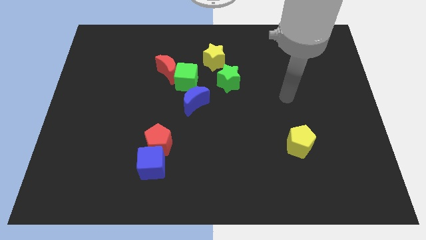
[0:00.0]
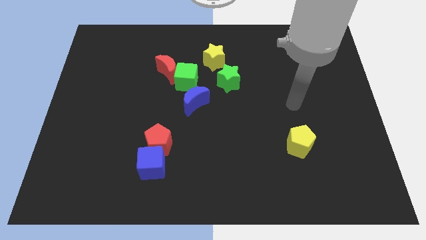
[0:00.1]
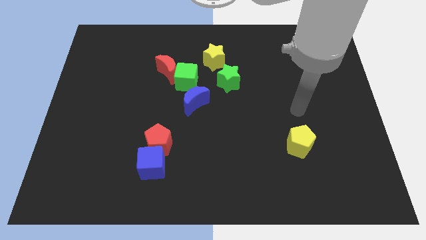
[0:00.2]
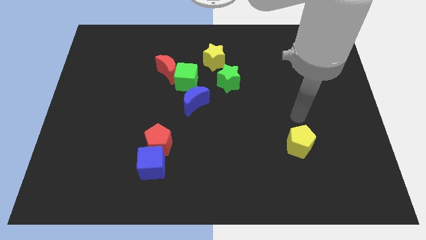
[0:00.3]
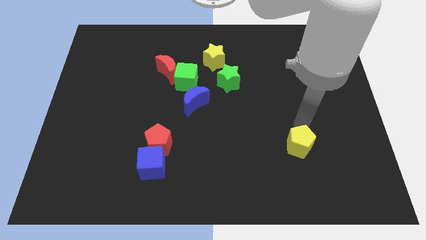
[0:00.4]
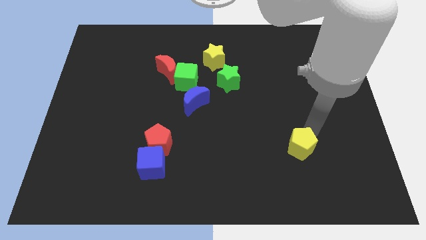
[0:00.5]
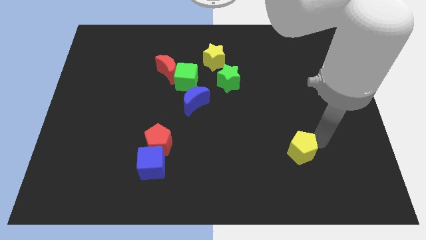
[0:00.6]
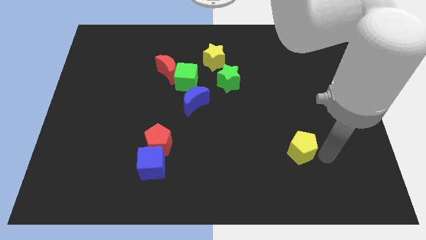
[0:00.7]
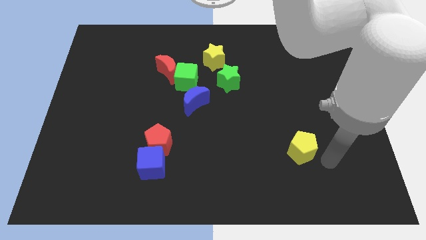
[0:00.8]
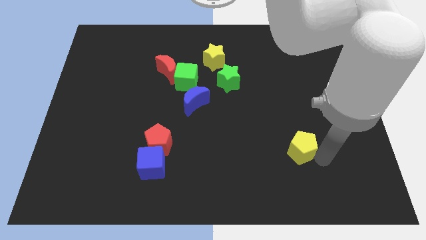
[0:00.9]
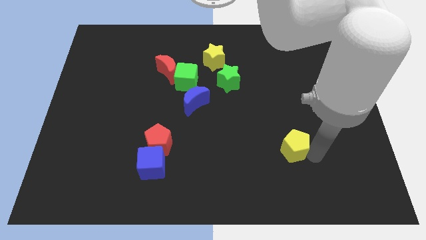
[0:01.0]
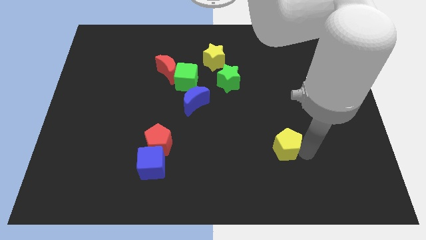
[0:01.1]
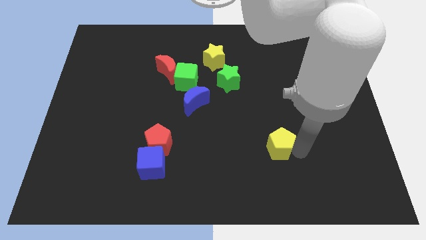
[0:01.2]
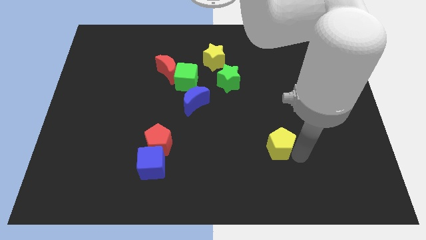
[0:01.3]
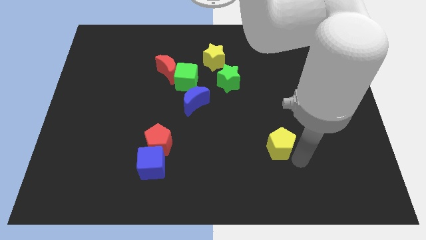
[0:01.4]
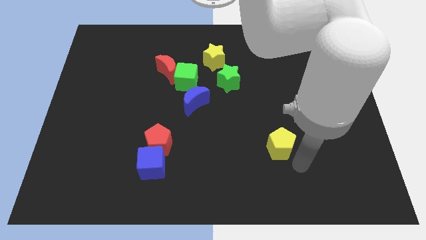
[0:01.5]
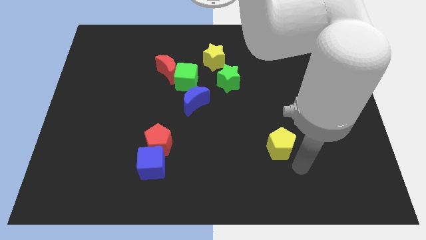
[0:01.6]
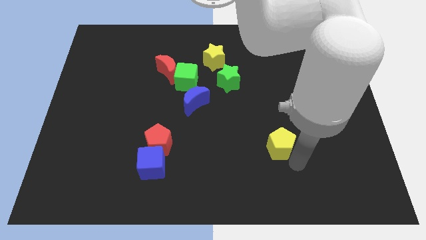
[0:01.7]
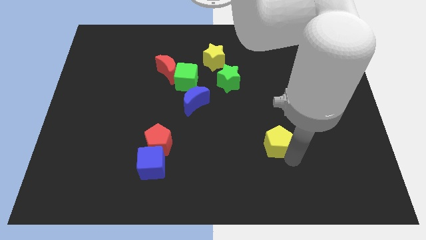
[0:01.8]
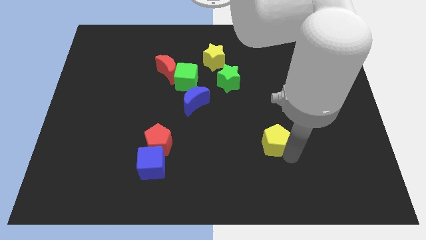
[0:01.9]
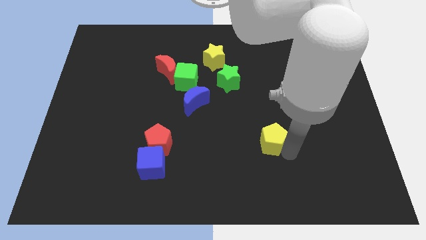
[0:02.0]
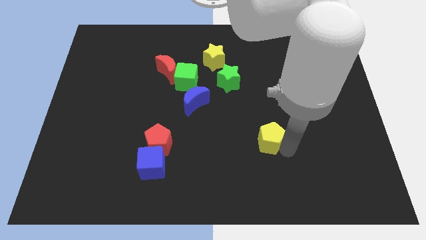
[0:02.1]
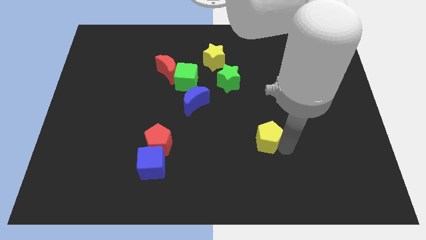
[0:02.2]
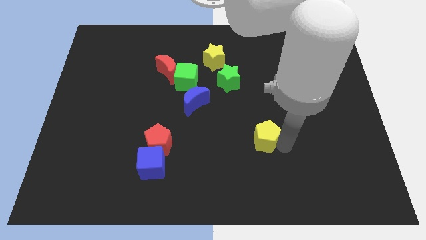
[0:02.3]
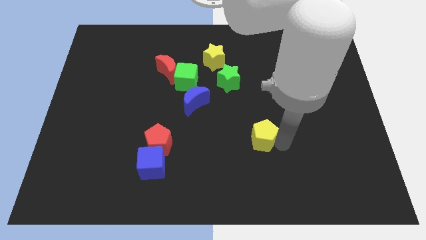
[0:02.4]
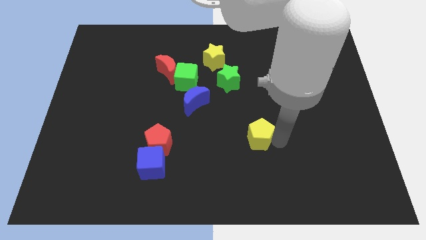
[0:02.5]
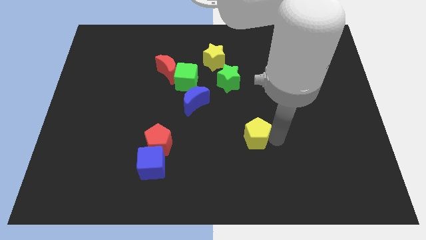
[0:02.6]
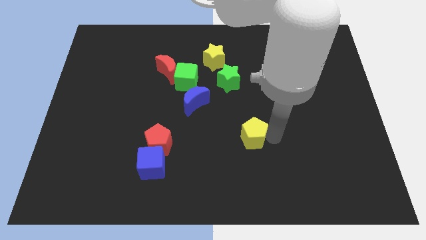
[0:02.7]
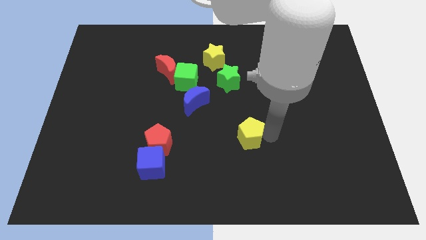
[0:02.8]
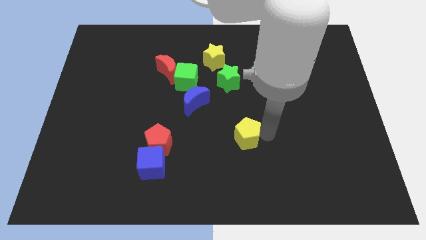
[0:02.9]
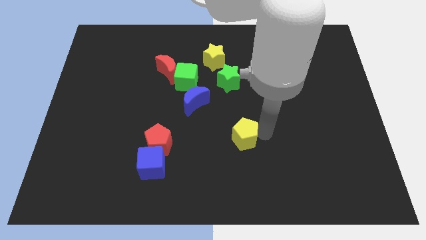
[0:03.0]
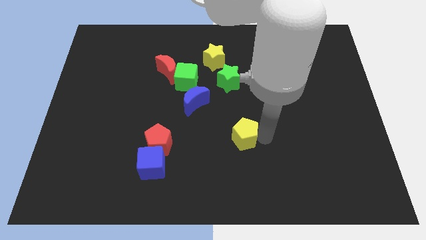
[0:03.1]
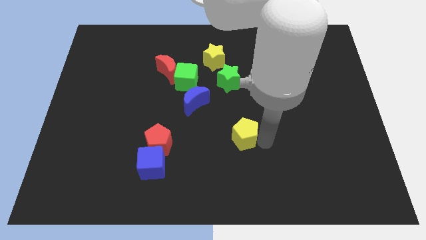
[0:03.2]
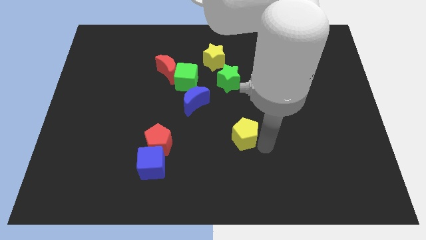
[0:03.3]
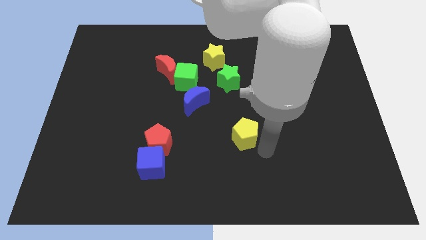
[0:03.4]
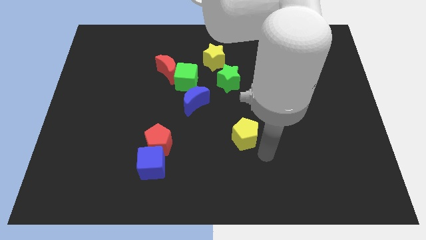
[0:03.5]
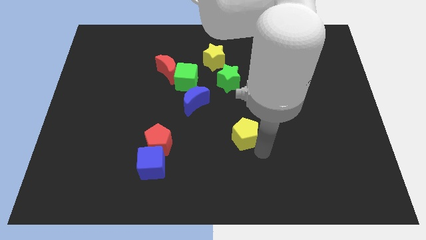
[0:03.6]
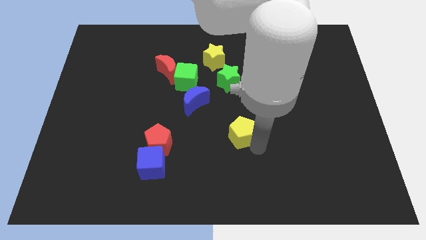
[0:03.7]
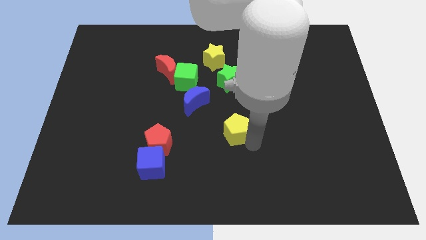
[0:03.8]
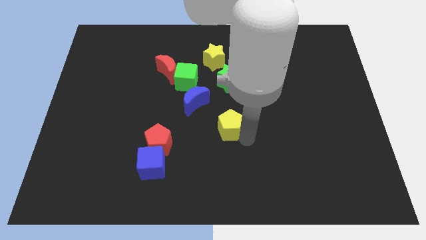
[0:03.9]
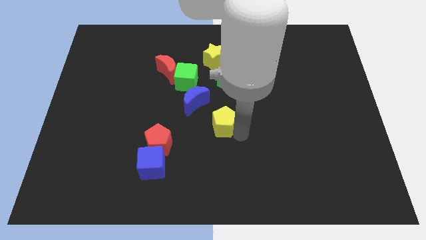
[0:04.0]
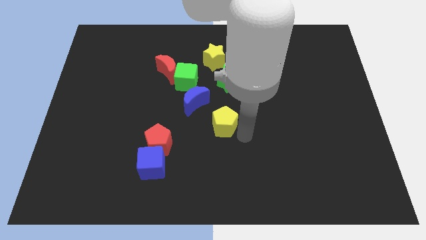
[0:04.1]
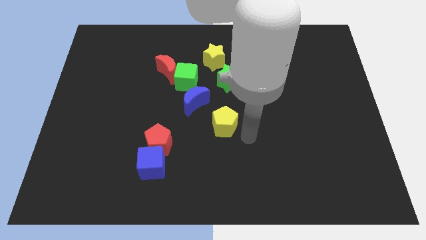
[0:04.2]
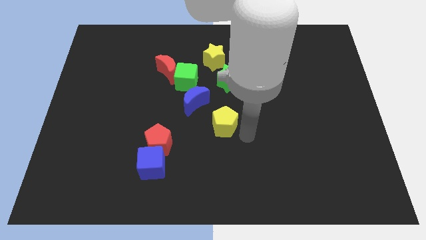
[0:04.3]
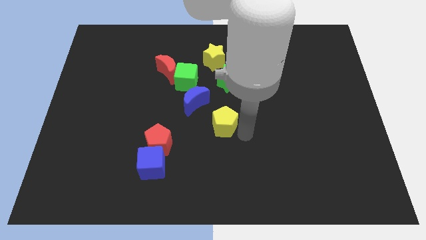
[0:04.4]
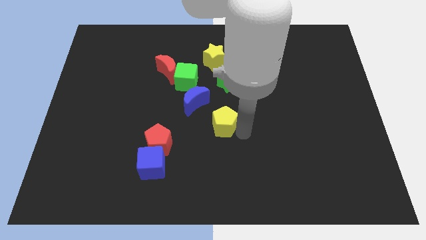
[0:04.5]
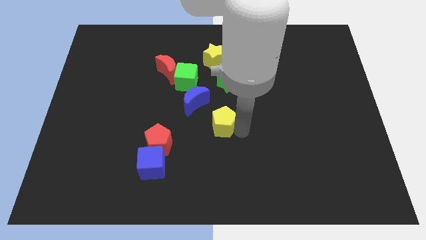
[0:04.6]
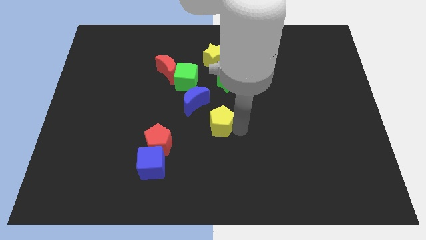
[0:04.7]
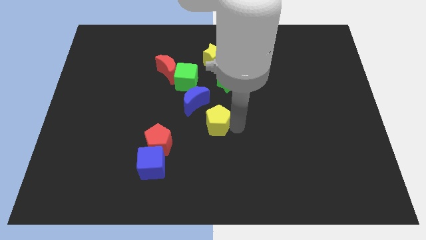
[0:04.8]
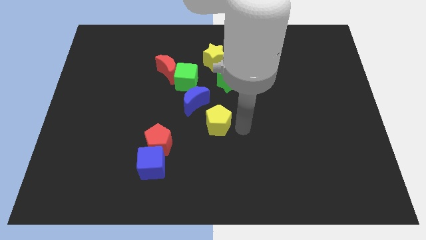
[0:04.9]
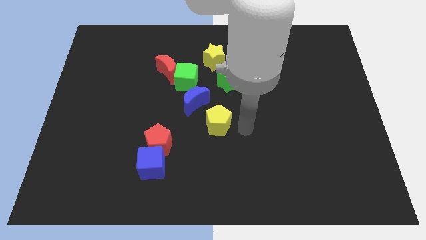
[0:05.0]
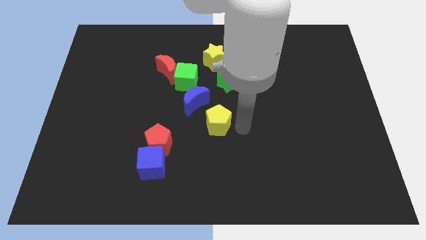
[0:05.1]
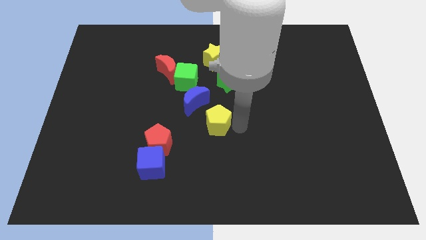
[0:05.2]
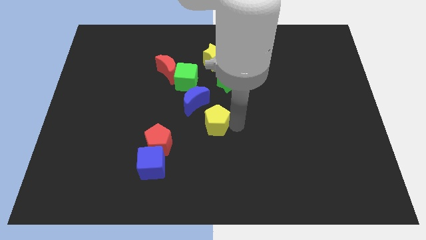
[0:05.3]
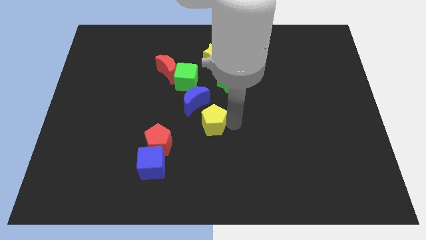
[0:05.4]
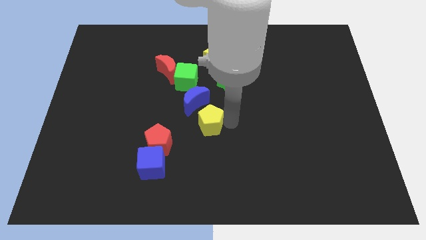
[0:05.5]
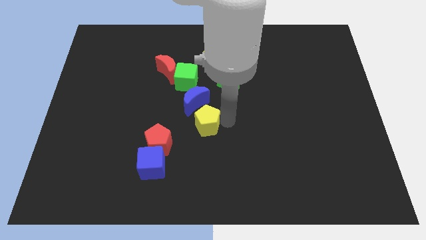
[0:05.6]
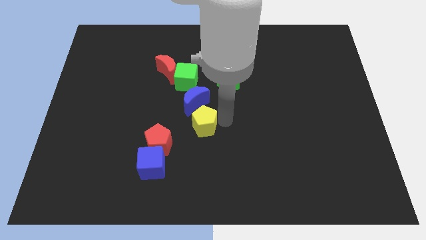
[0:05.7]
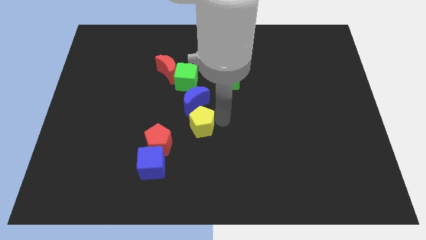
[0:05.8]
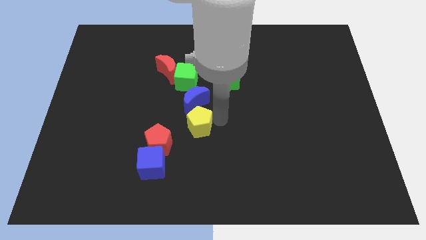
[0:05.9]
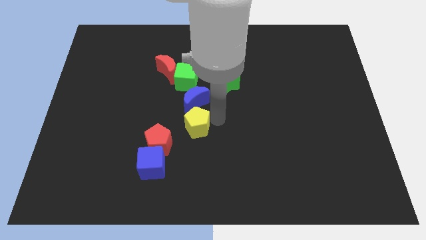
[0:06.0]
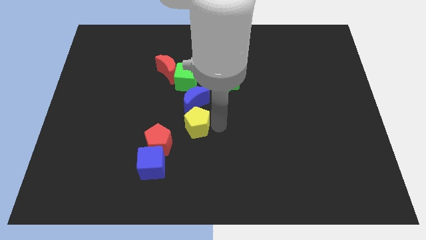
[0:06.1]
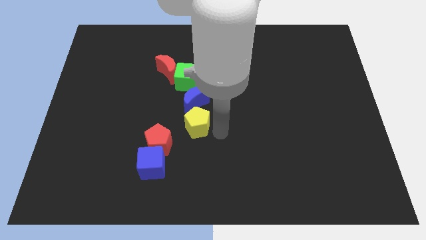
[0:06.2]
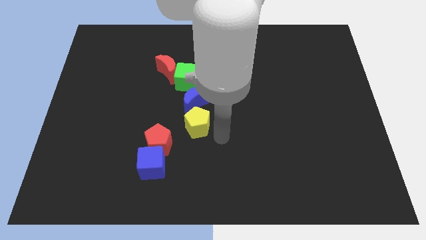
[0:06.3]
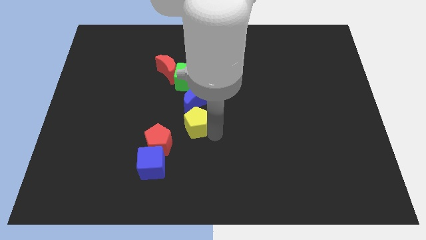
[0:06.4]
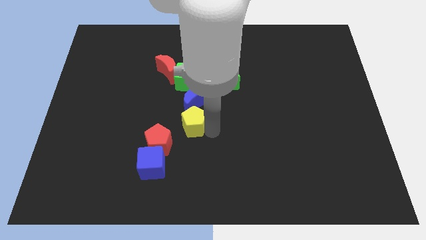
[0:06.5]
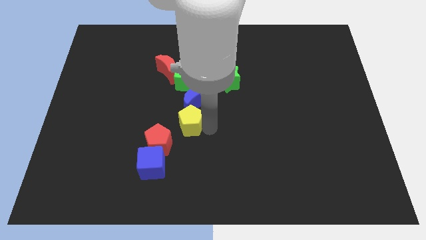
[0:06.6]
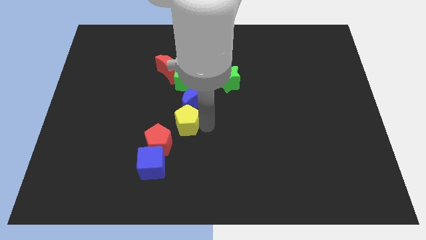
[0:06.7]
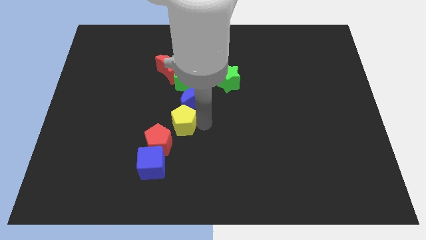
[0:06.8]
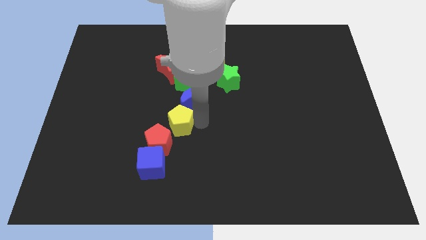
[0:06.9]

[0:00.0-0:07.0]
move the yellow pentagon to the top of the red pentagon
